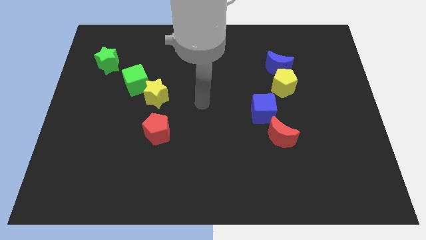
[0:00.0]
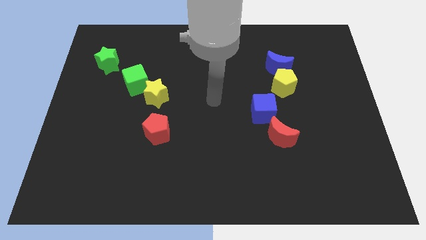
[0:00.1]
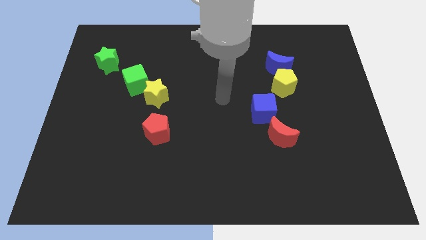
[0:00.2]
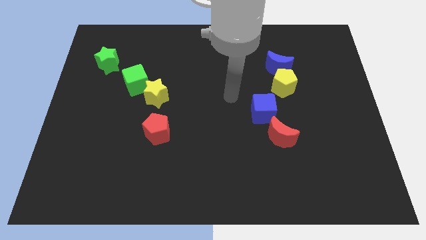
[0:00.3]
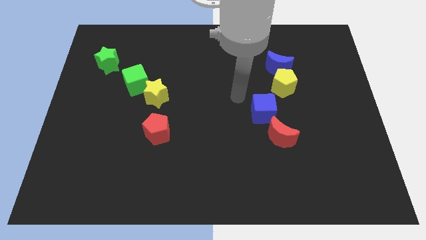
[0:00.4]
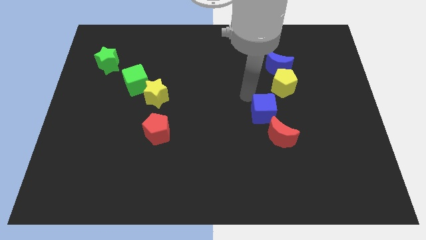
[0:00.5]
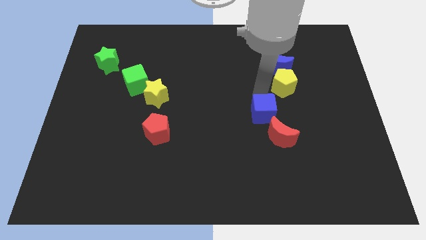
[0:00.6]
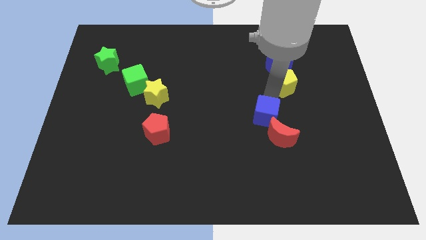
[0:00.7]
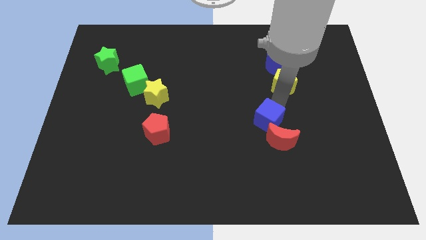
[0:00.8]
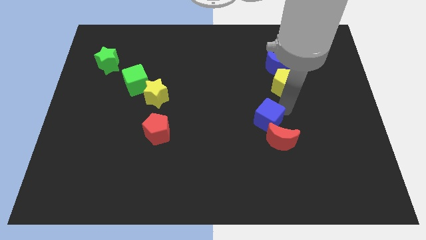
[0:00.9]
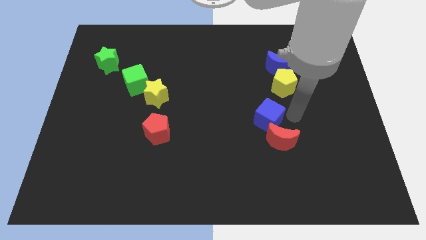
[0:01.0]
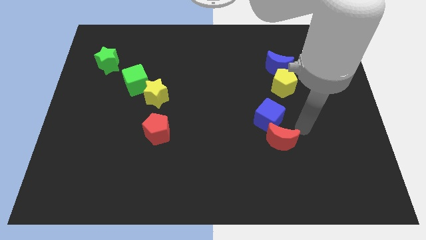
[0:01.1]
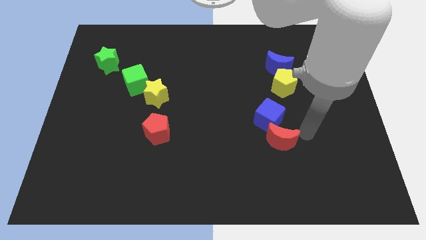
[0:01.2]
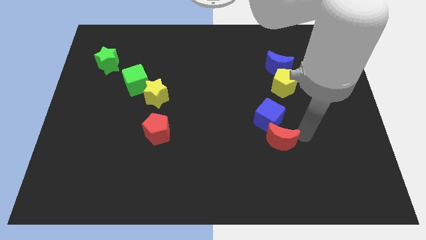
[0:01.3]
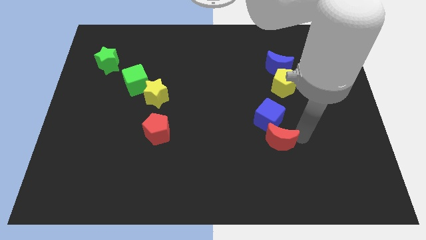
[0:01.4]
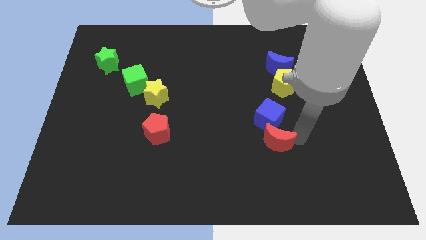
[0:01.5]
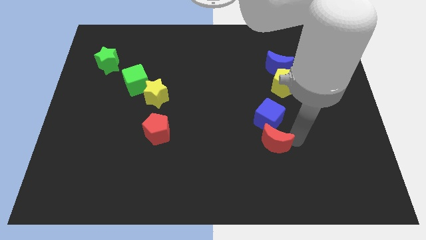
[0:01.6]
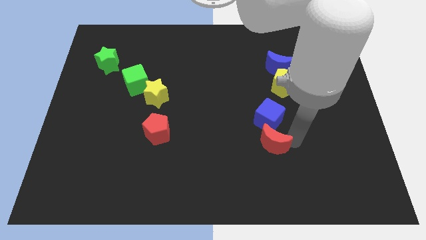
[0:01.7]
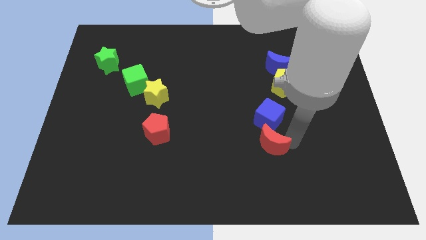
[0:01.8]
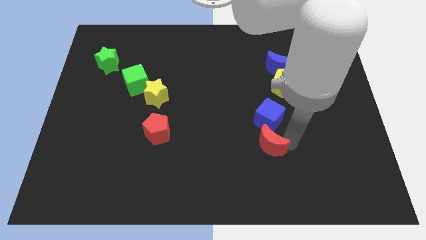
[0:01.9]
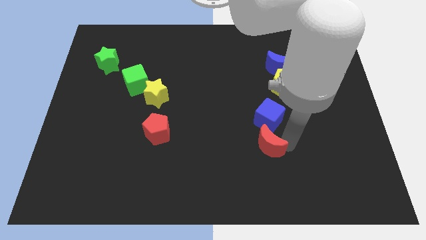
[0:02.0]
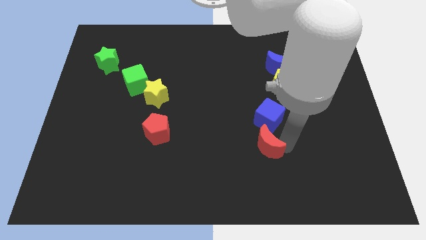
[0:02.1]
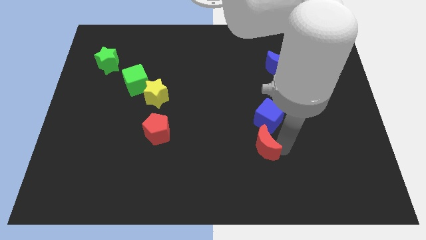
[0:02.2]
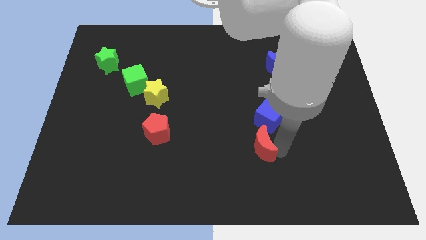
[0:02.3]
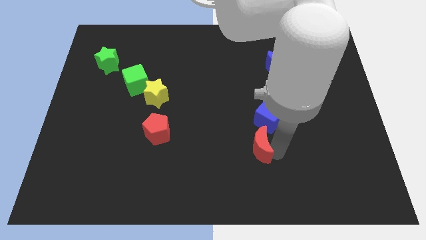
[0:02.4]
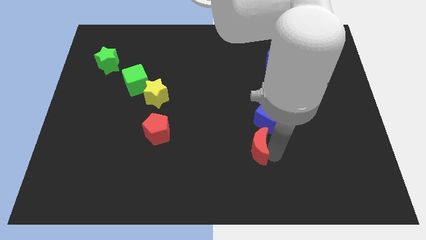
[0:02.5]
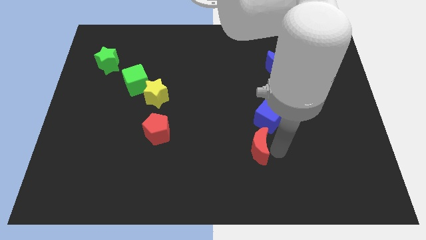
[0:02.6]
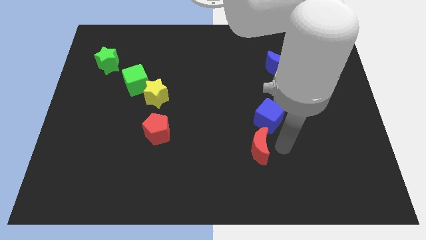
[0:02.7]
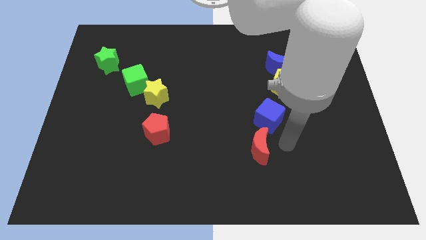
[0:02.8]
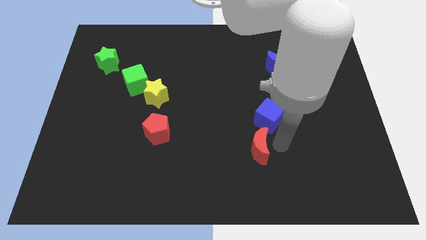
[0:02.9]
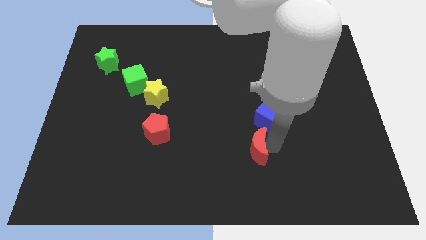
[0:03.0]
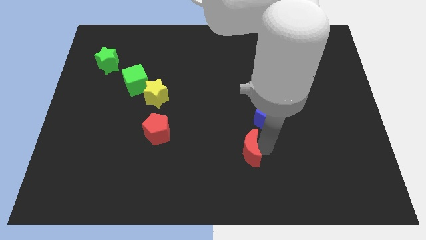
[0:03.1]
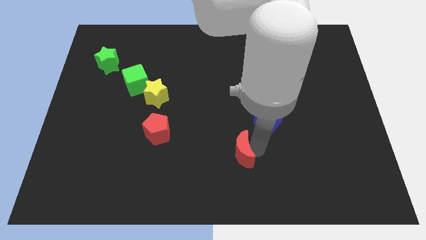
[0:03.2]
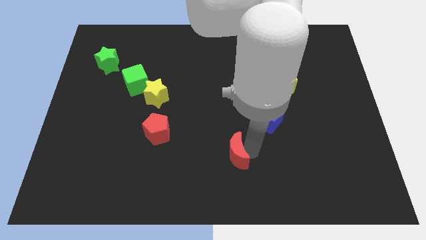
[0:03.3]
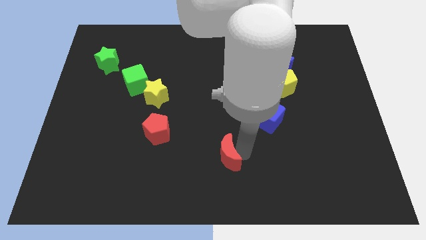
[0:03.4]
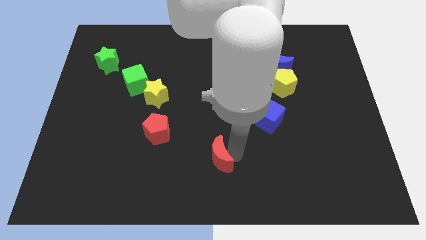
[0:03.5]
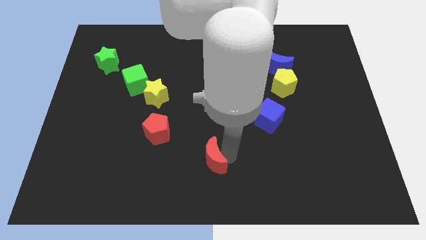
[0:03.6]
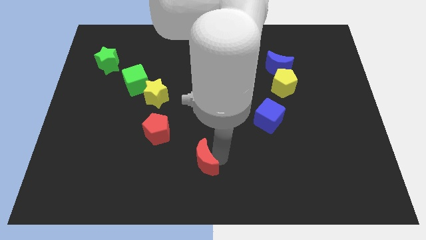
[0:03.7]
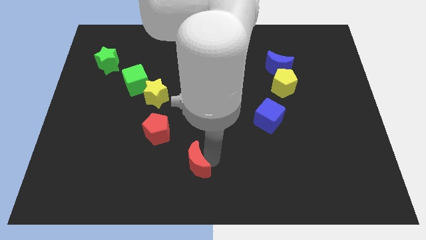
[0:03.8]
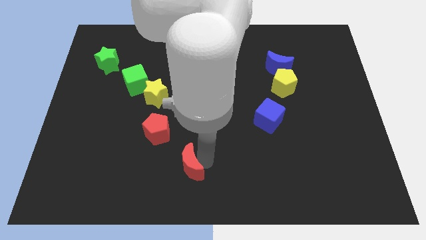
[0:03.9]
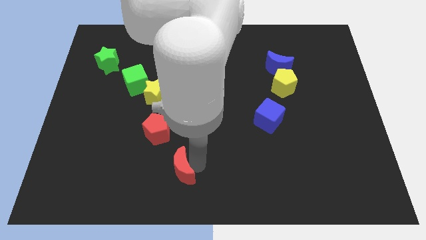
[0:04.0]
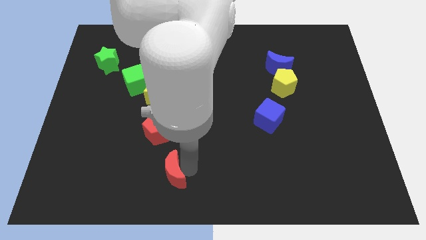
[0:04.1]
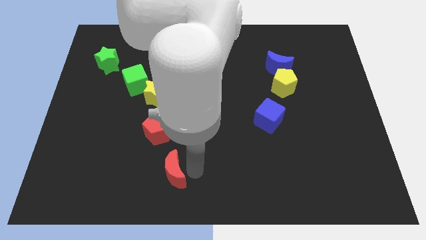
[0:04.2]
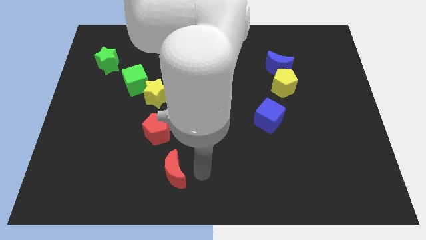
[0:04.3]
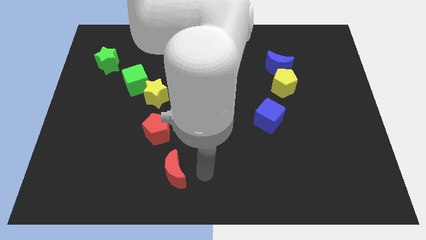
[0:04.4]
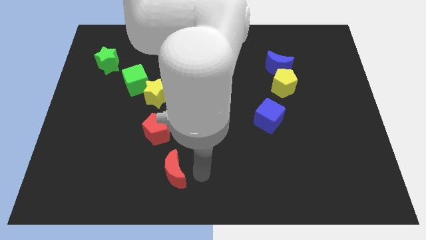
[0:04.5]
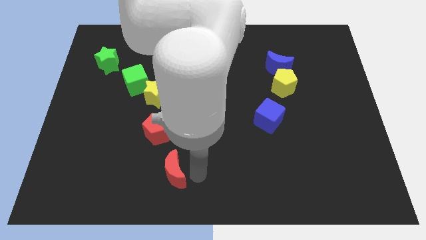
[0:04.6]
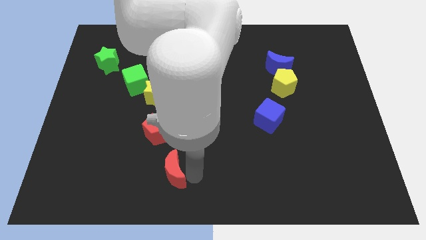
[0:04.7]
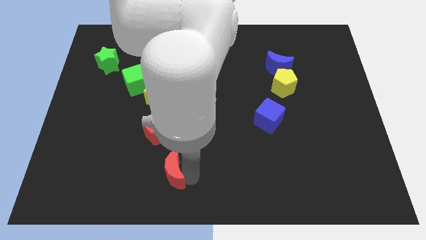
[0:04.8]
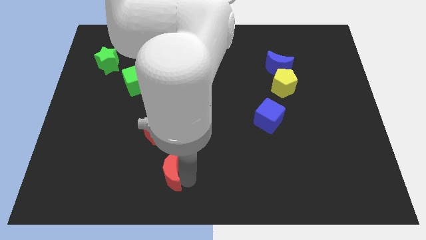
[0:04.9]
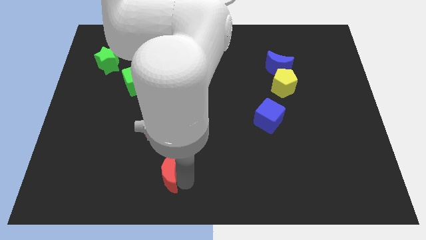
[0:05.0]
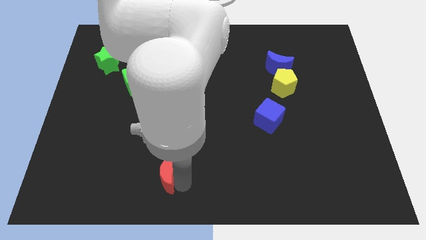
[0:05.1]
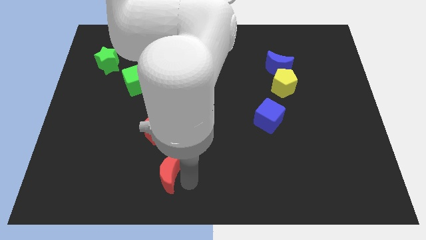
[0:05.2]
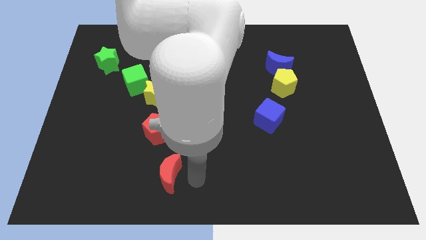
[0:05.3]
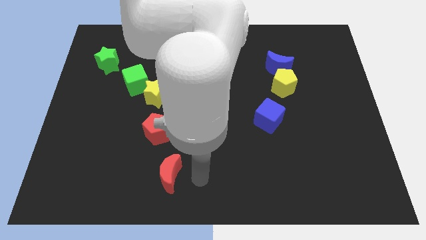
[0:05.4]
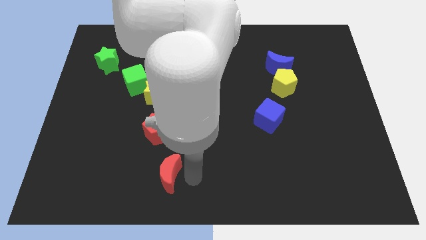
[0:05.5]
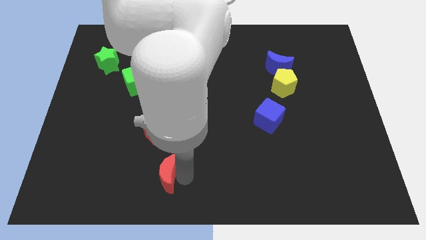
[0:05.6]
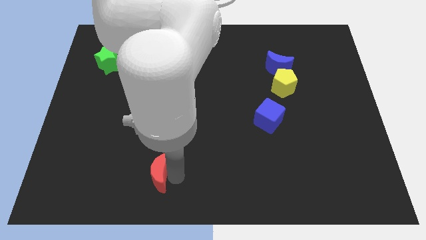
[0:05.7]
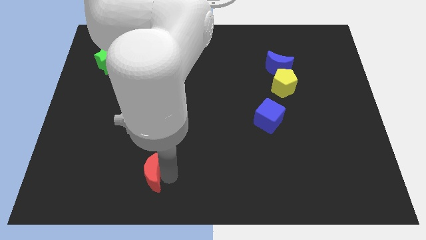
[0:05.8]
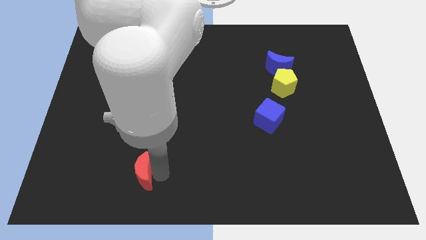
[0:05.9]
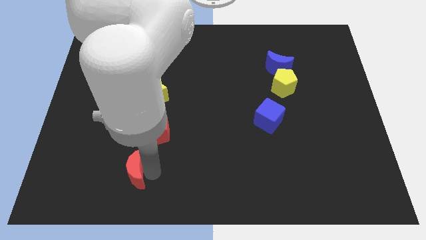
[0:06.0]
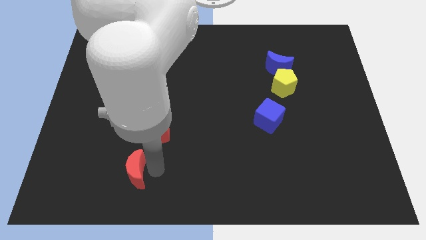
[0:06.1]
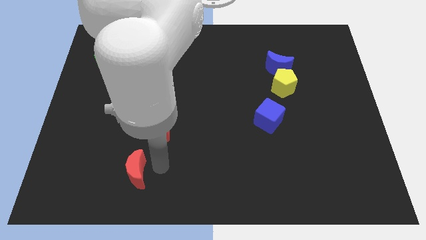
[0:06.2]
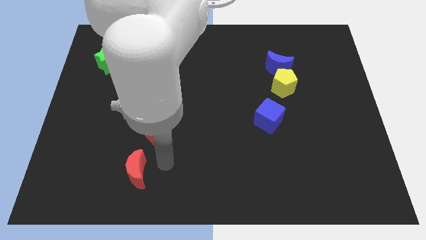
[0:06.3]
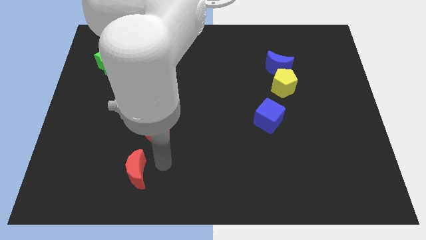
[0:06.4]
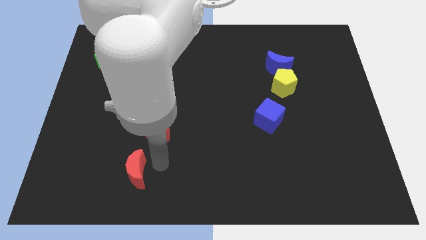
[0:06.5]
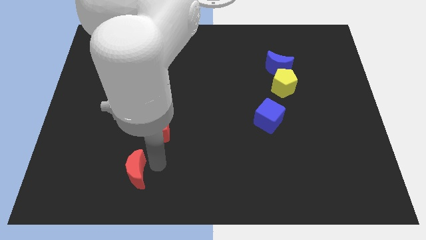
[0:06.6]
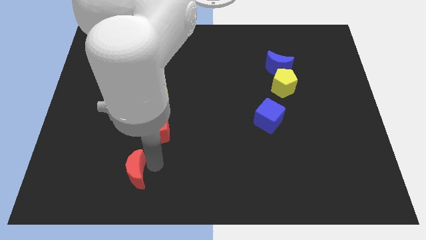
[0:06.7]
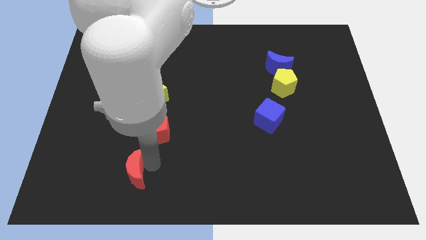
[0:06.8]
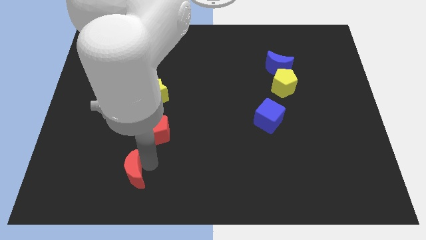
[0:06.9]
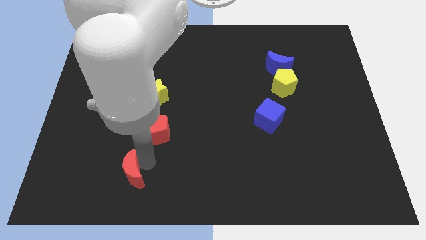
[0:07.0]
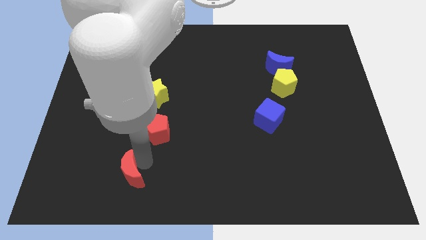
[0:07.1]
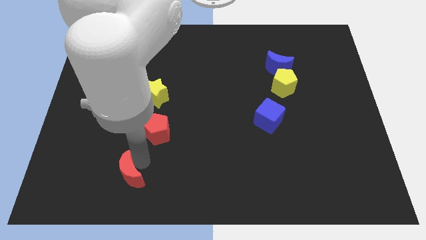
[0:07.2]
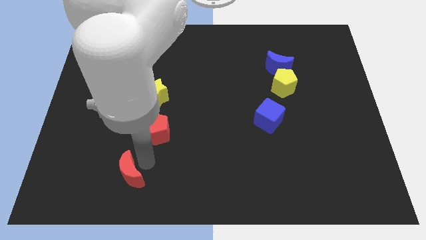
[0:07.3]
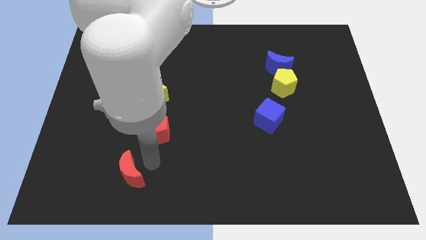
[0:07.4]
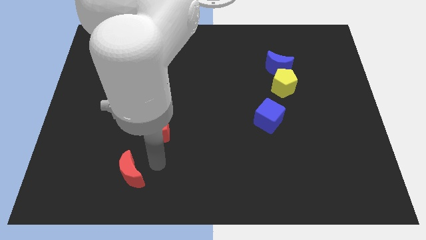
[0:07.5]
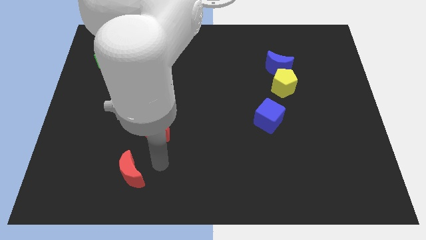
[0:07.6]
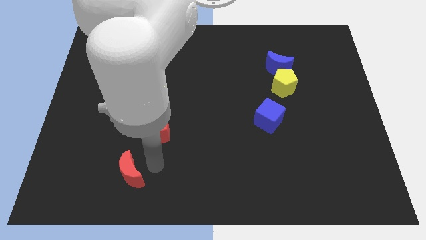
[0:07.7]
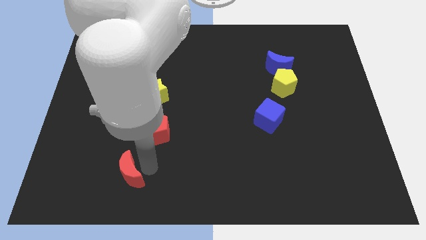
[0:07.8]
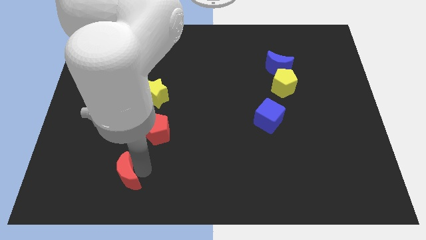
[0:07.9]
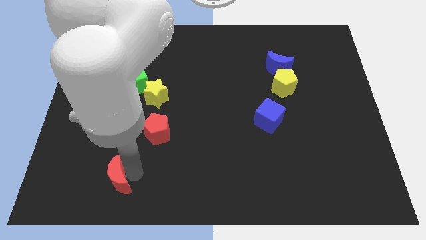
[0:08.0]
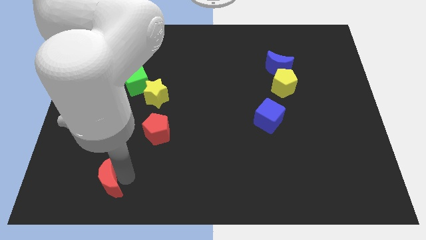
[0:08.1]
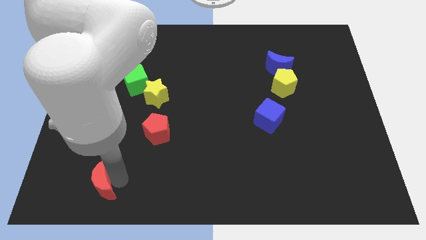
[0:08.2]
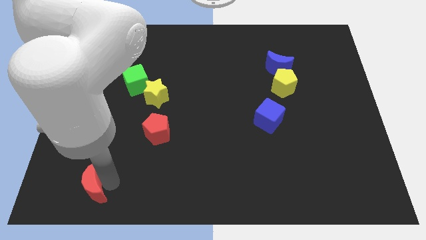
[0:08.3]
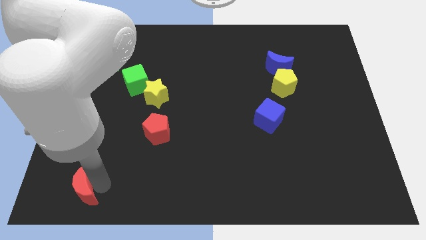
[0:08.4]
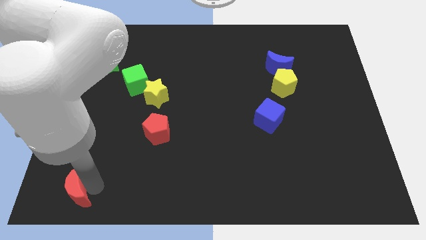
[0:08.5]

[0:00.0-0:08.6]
slide the red moon to the bottom left
